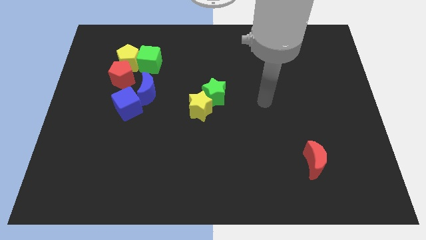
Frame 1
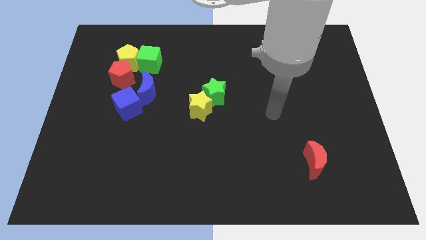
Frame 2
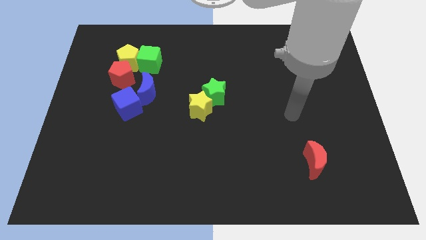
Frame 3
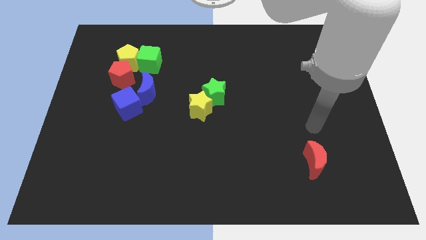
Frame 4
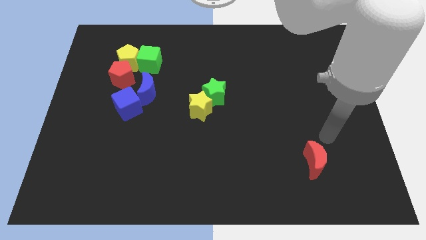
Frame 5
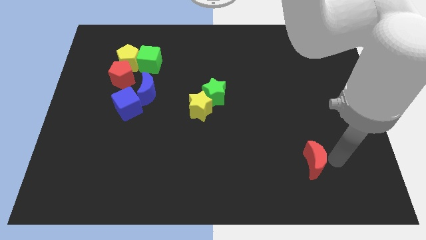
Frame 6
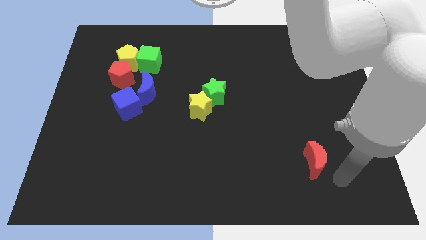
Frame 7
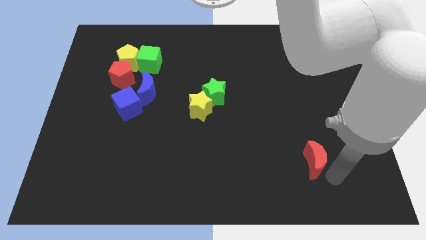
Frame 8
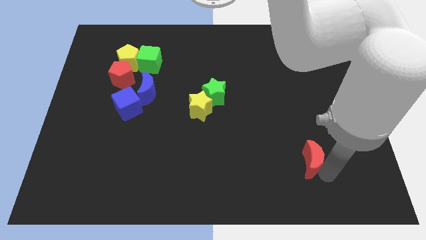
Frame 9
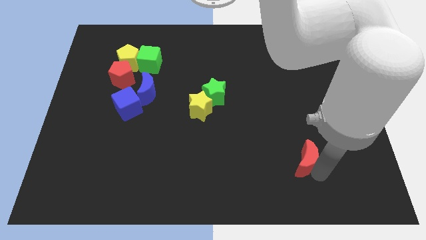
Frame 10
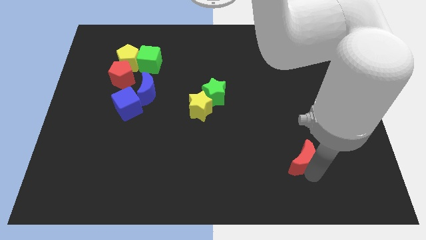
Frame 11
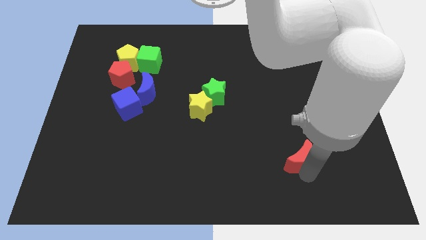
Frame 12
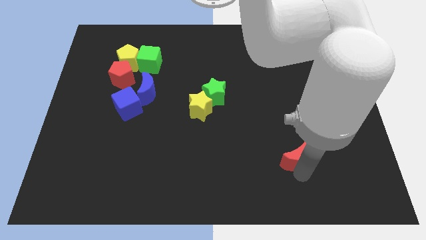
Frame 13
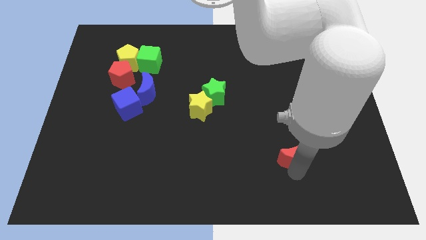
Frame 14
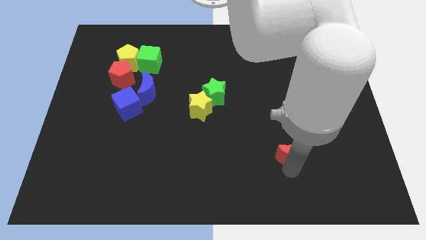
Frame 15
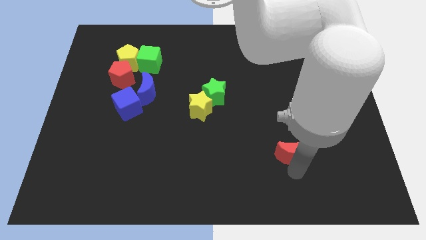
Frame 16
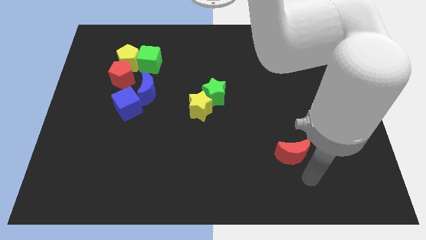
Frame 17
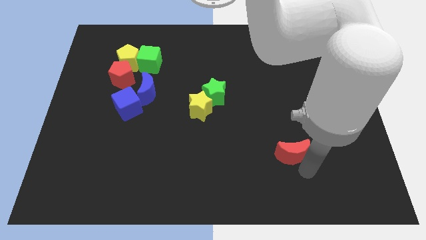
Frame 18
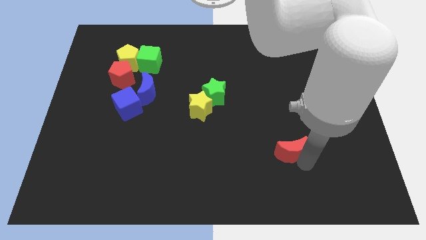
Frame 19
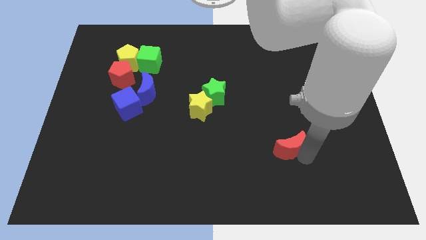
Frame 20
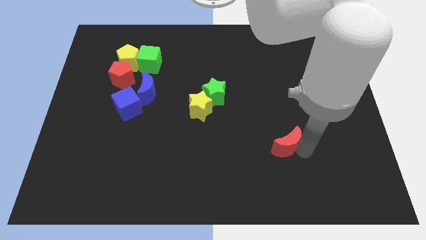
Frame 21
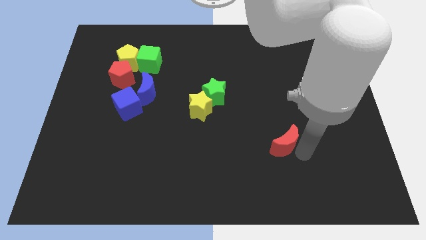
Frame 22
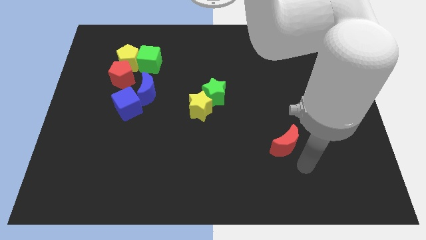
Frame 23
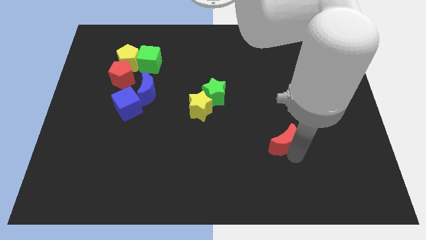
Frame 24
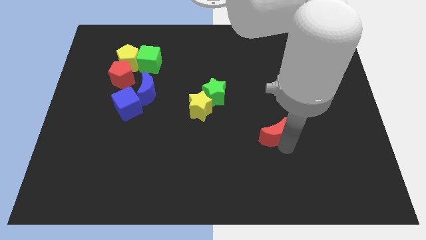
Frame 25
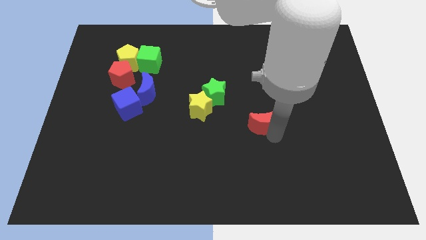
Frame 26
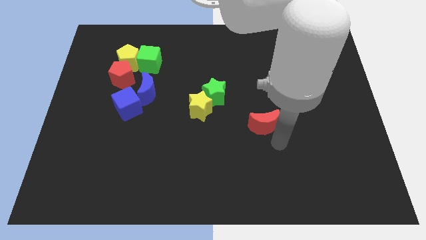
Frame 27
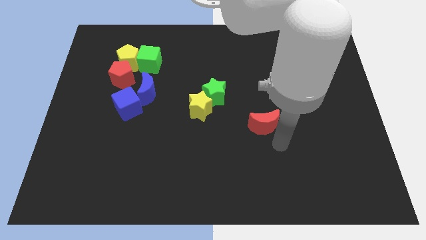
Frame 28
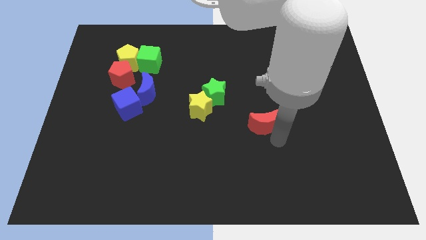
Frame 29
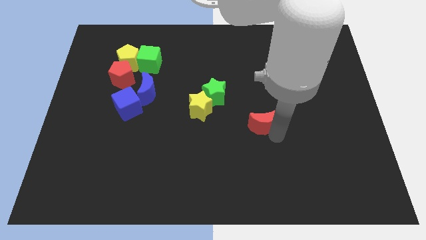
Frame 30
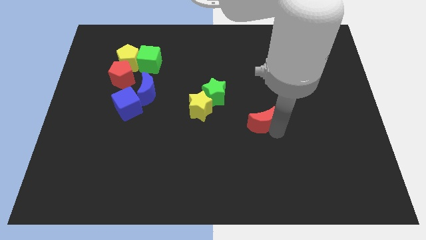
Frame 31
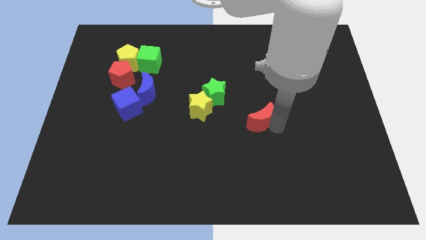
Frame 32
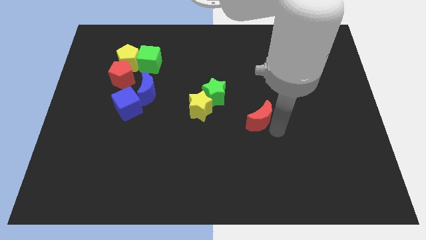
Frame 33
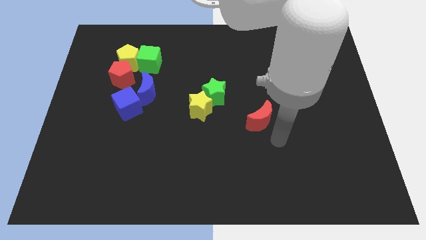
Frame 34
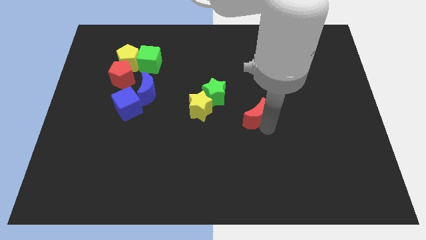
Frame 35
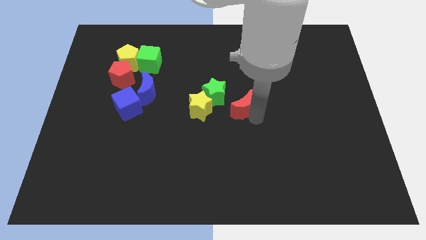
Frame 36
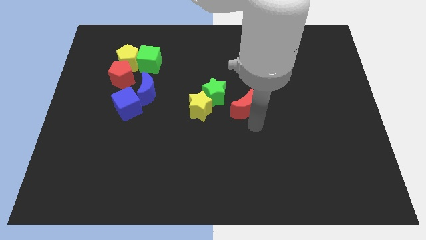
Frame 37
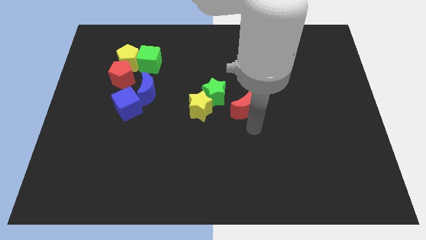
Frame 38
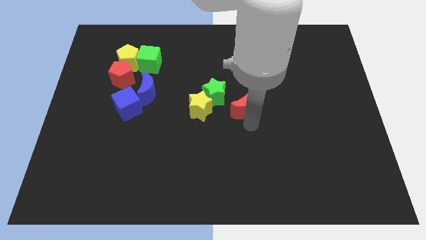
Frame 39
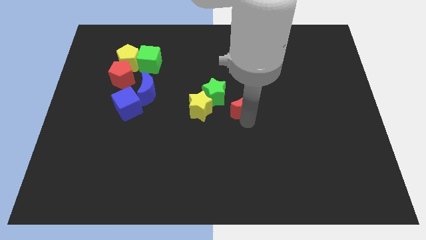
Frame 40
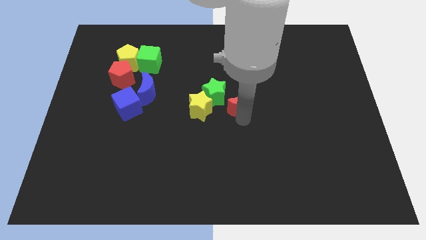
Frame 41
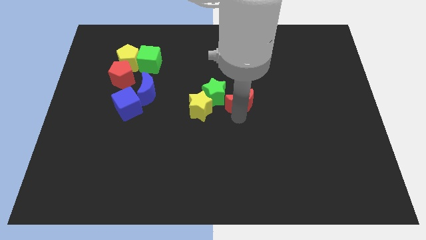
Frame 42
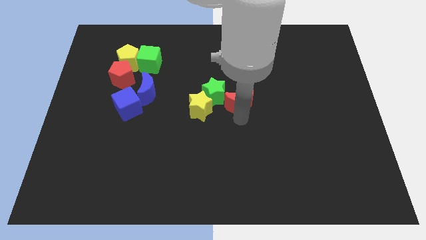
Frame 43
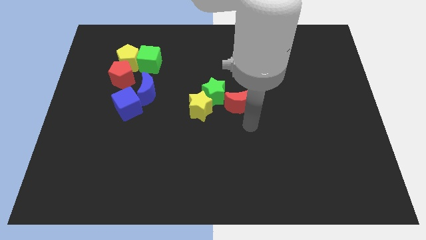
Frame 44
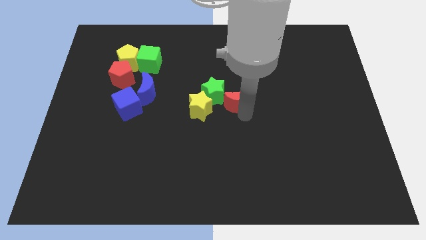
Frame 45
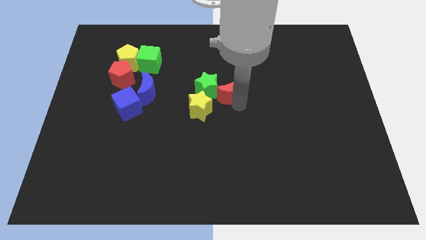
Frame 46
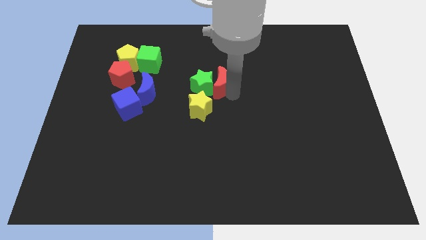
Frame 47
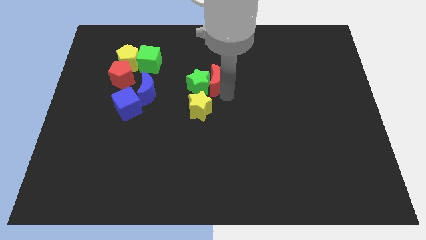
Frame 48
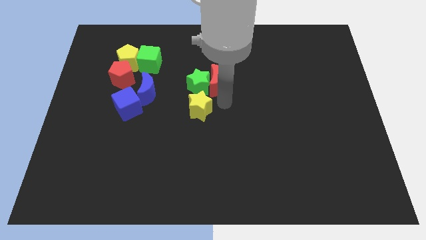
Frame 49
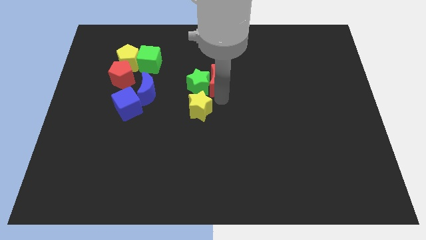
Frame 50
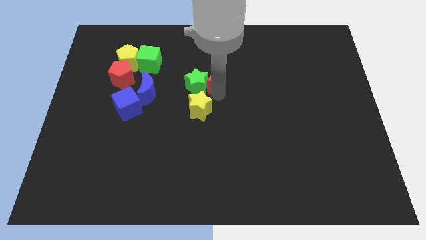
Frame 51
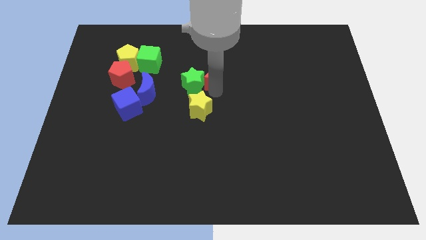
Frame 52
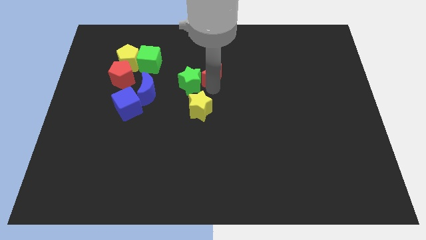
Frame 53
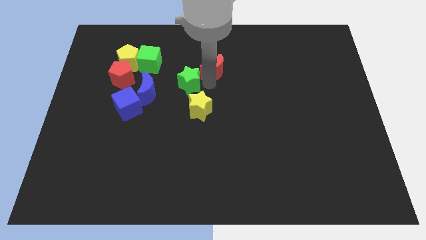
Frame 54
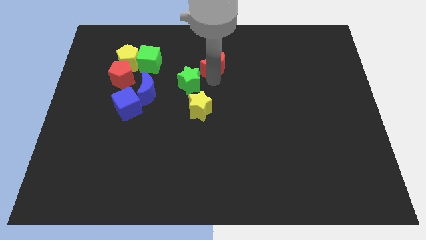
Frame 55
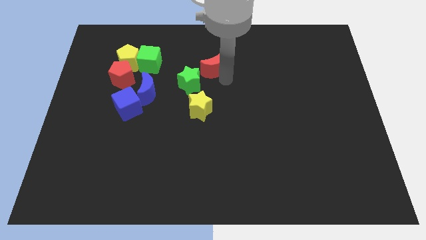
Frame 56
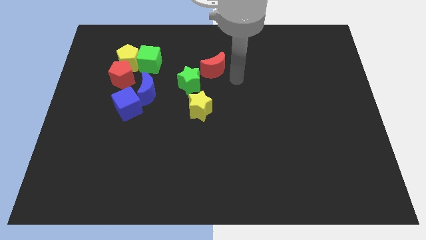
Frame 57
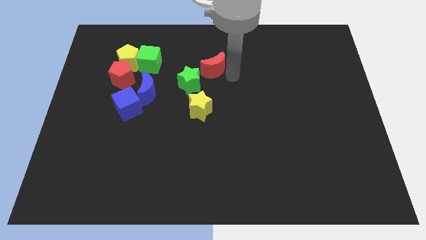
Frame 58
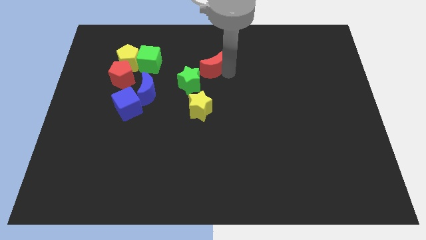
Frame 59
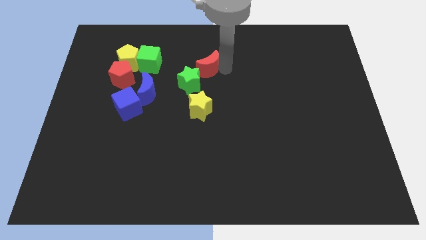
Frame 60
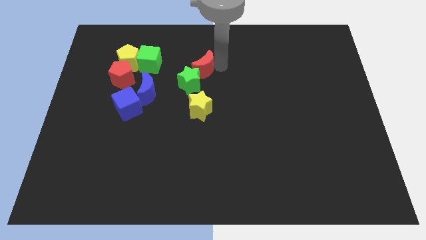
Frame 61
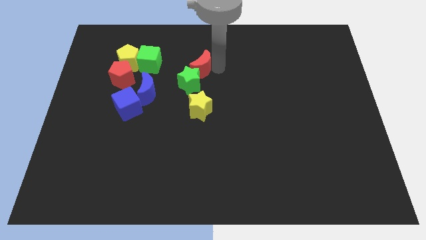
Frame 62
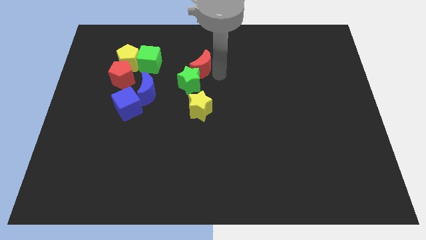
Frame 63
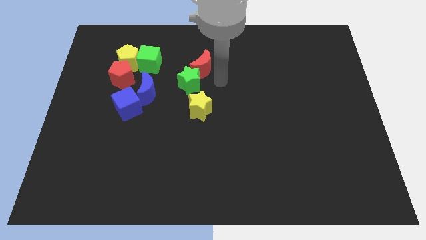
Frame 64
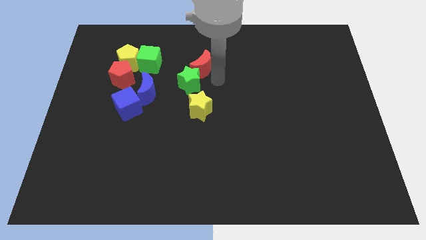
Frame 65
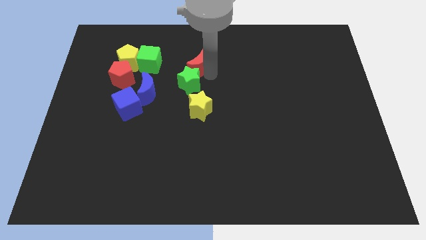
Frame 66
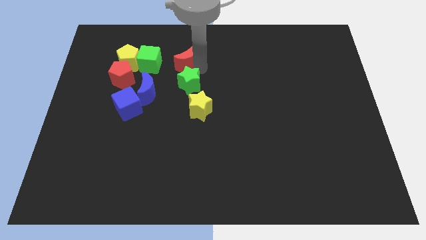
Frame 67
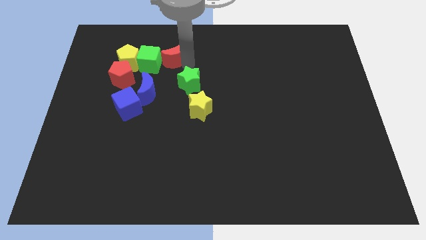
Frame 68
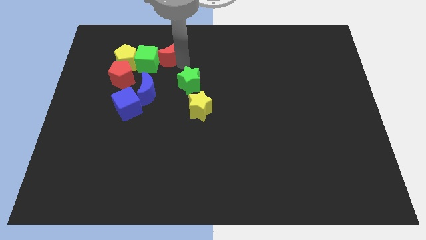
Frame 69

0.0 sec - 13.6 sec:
put the red moon to the top side of the blue moon
